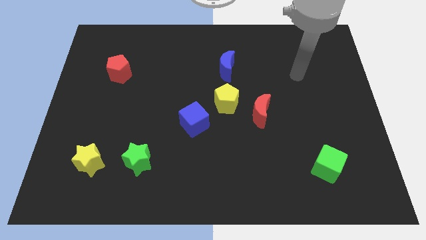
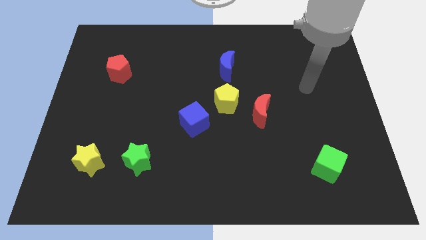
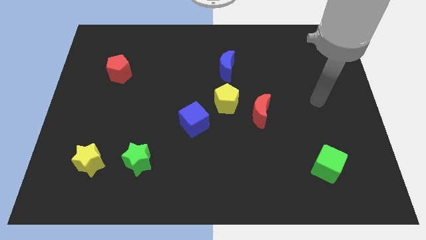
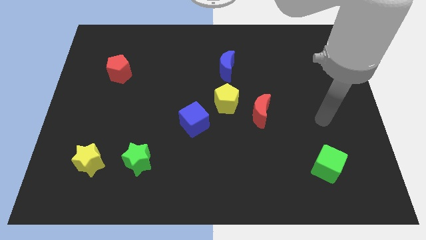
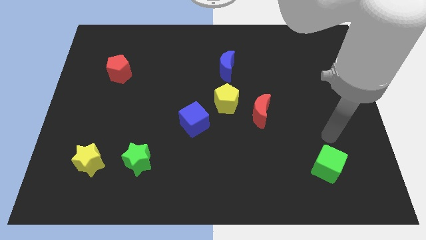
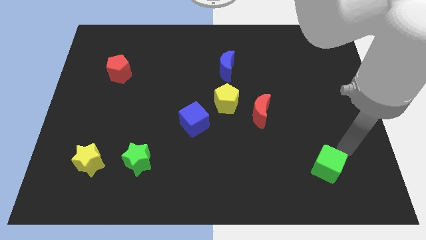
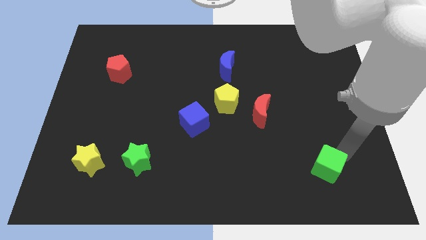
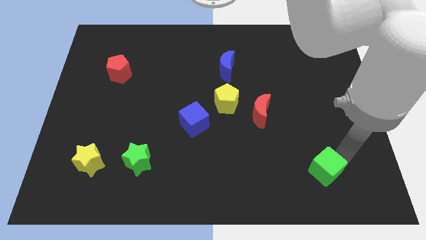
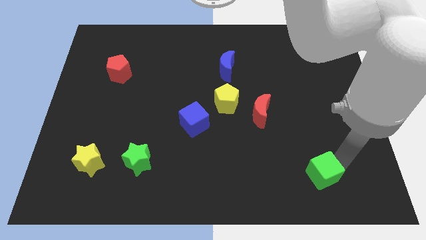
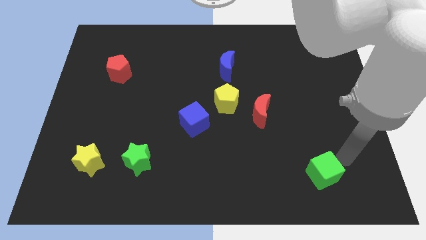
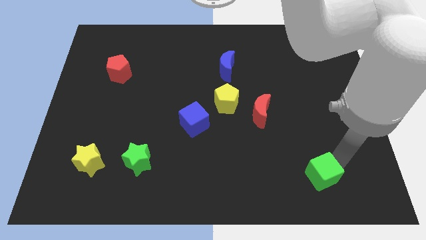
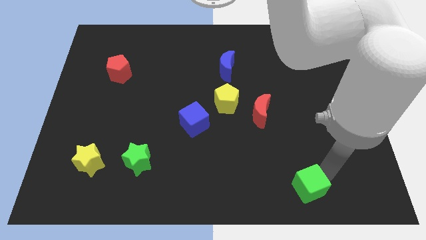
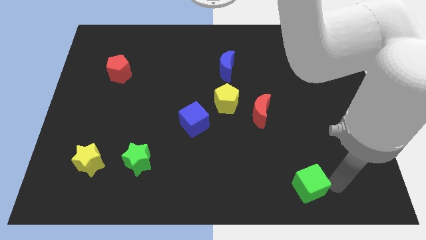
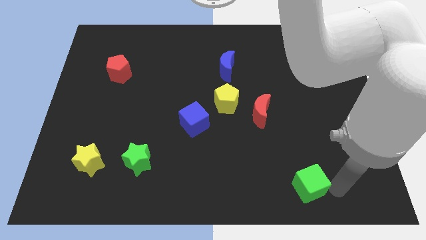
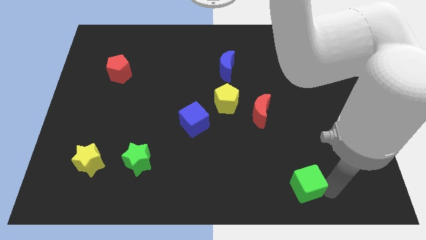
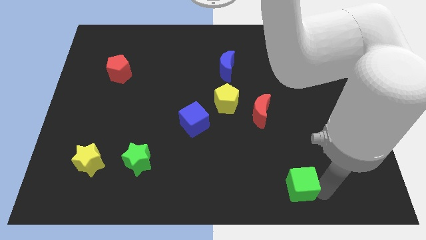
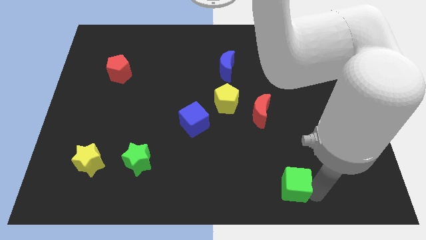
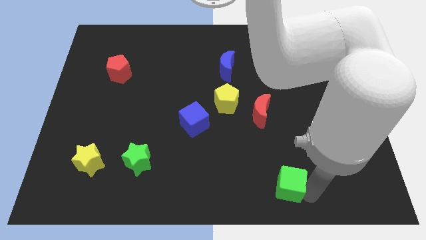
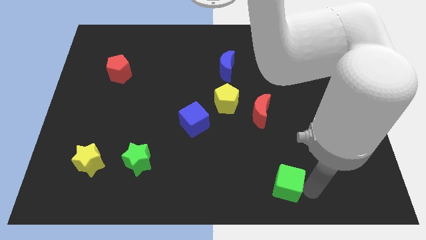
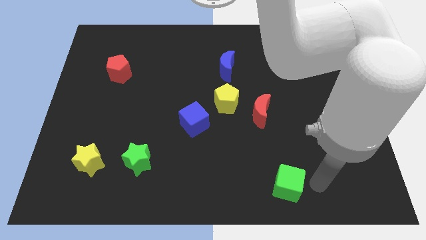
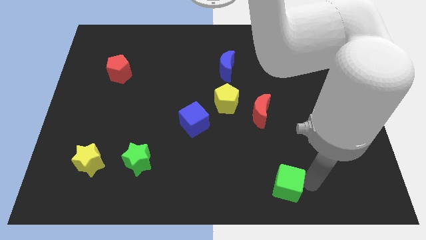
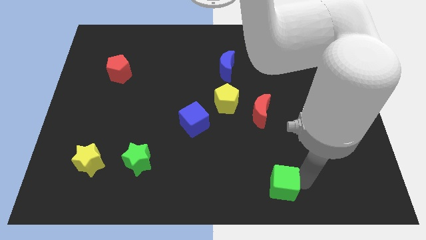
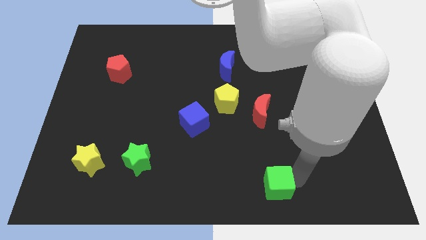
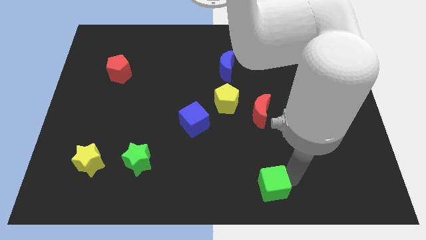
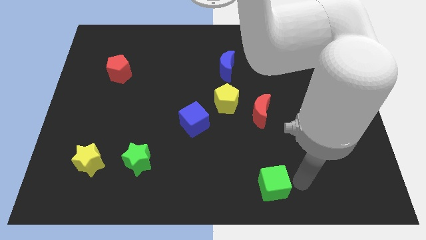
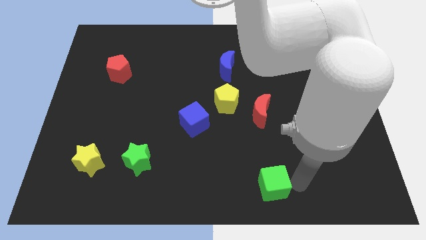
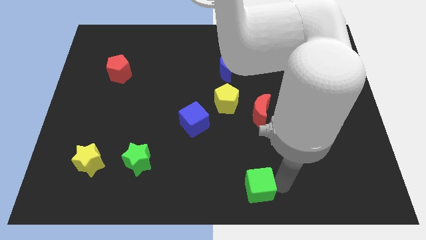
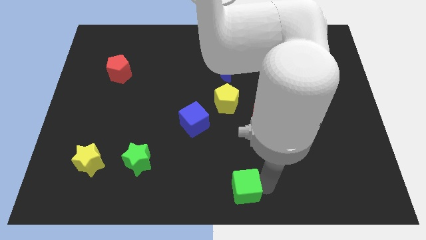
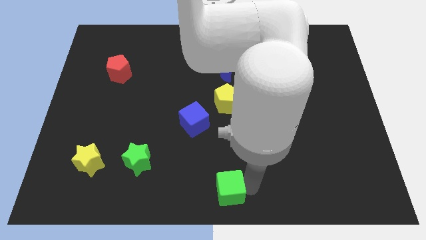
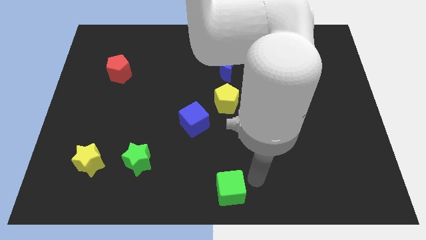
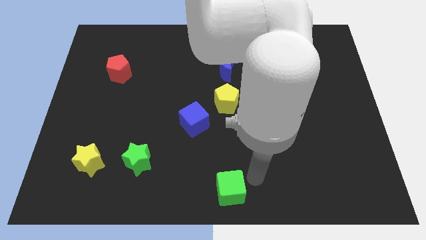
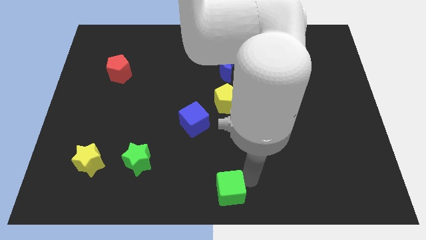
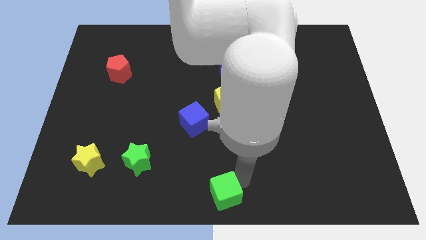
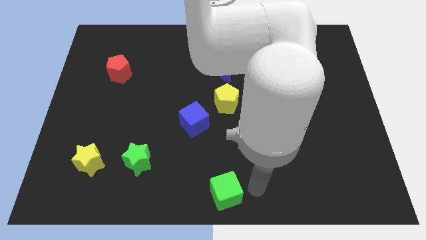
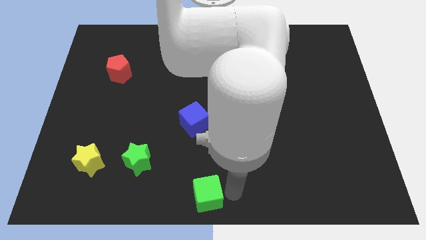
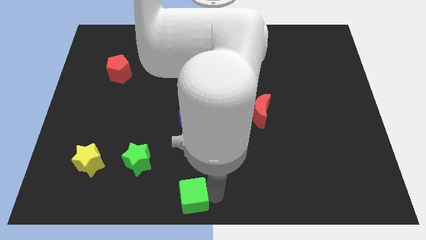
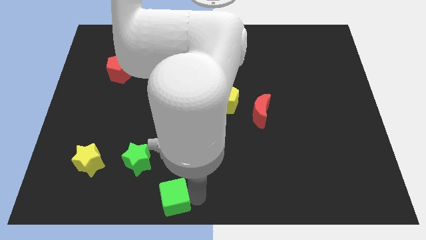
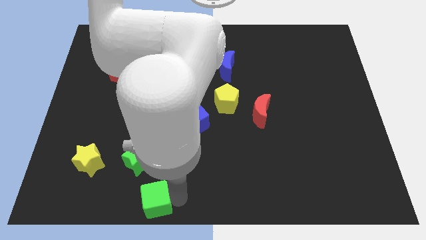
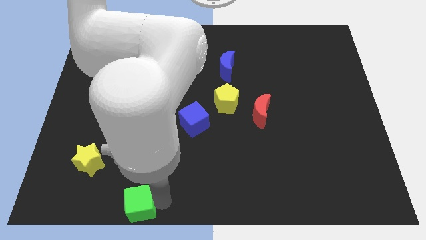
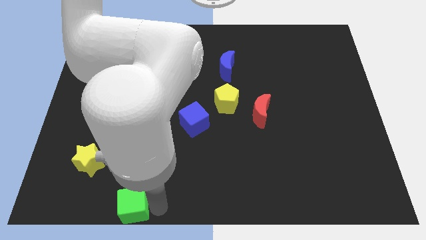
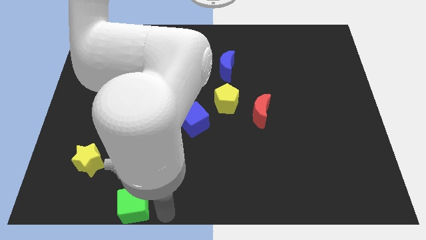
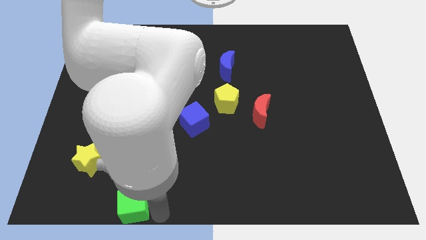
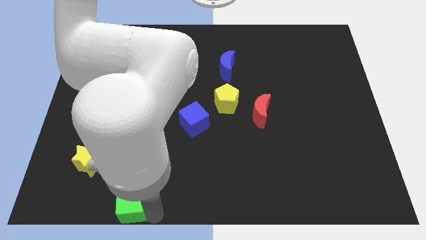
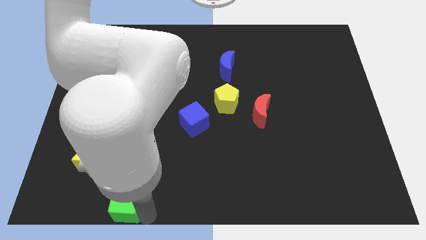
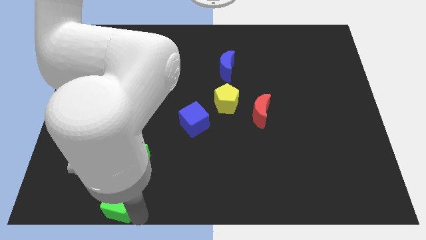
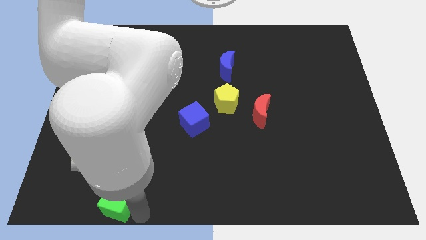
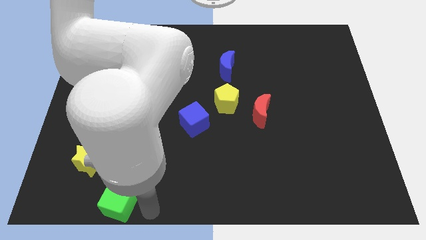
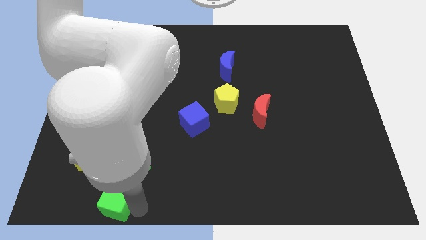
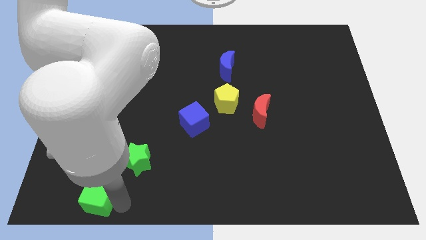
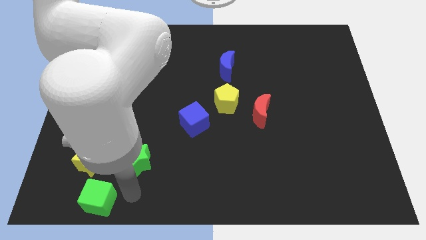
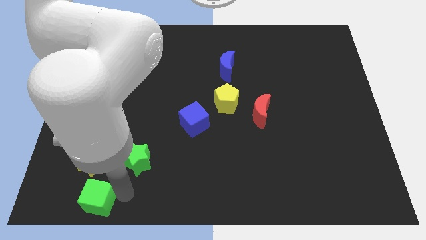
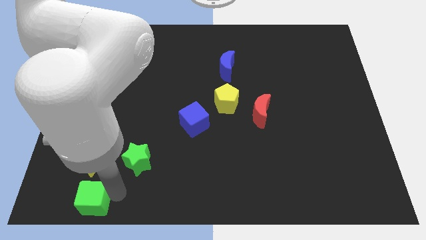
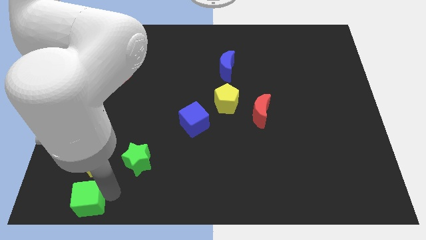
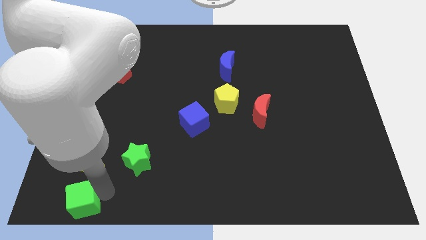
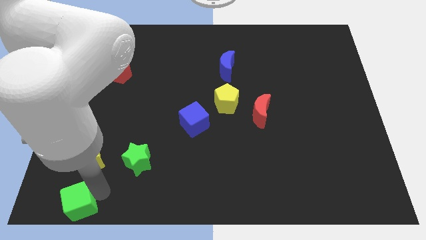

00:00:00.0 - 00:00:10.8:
put the green cube to the bottom left of the board

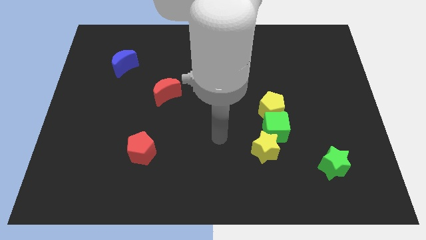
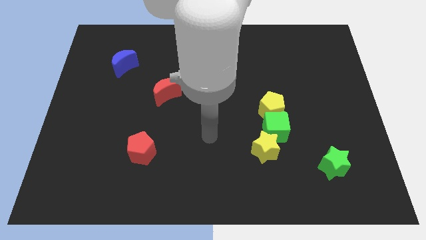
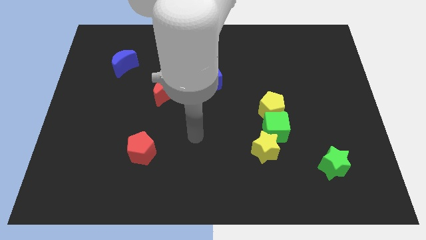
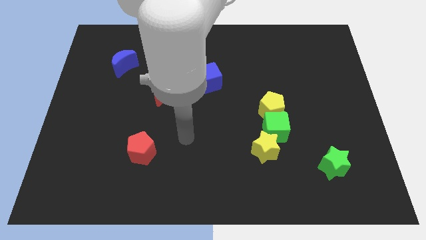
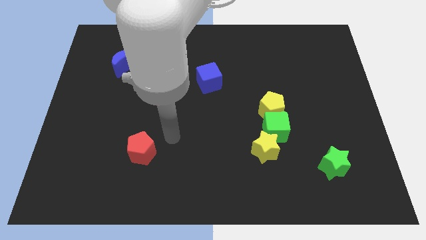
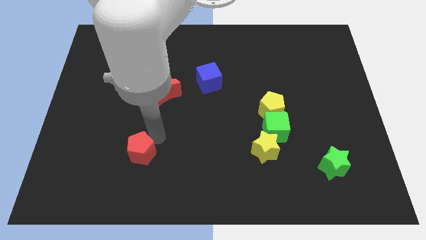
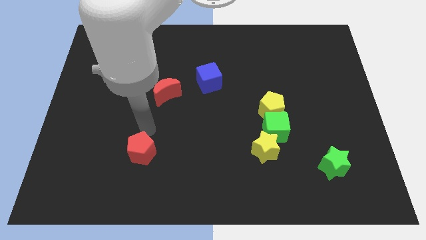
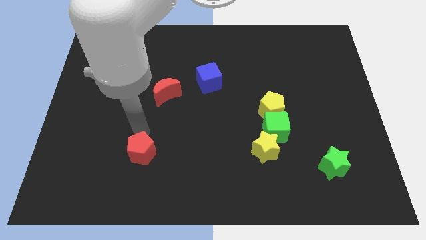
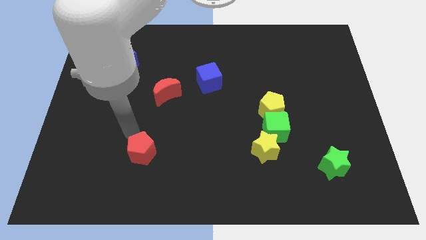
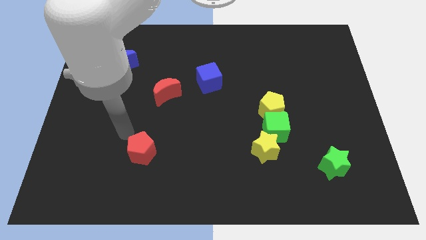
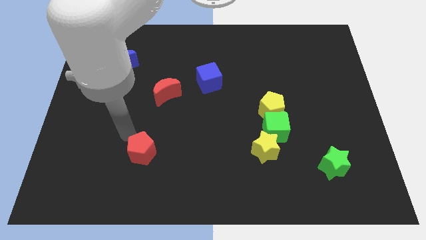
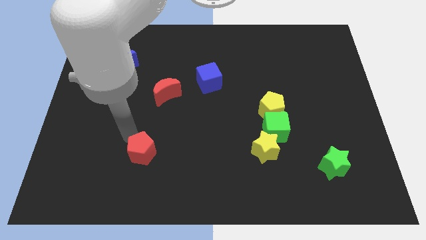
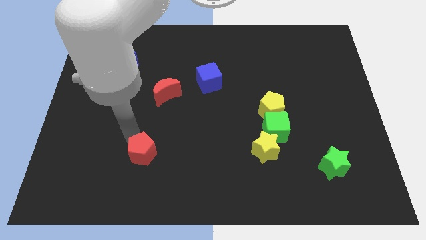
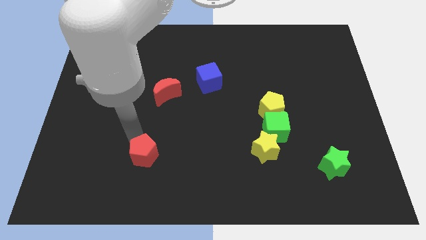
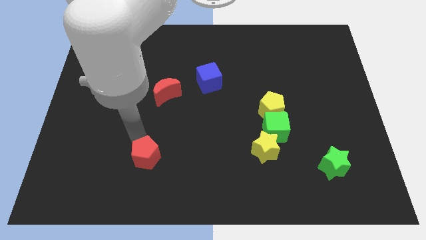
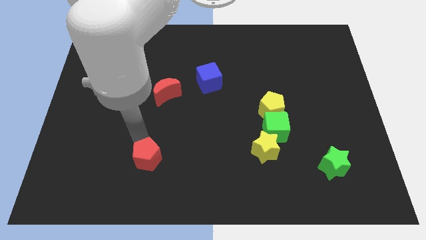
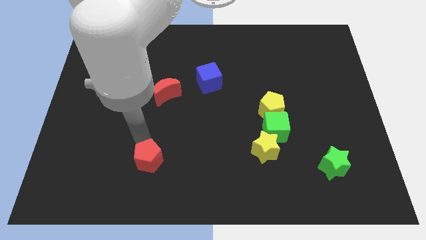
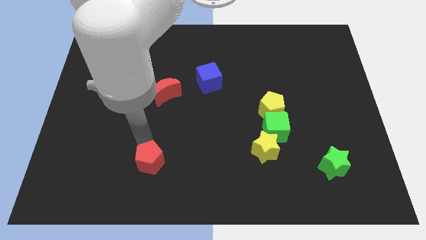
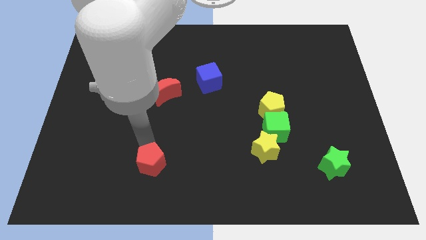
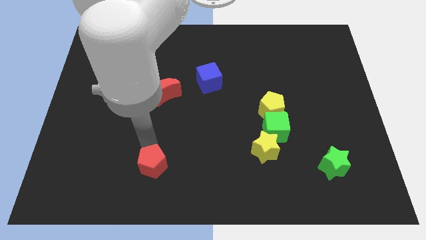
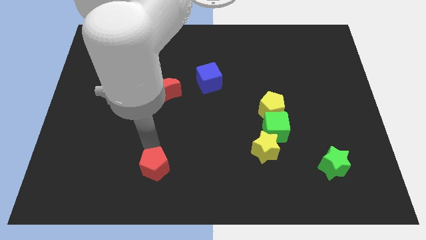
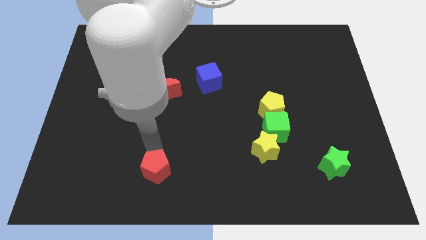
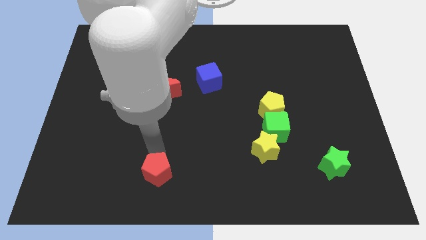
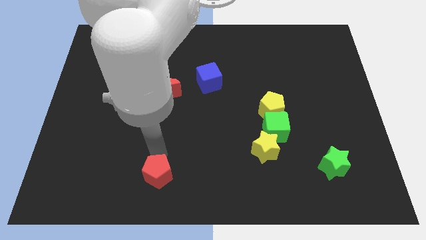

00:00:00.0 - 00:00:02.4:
slide the red pentagon to the bottom side
